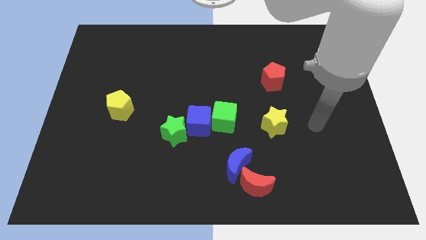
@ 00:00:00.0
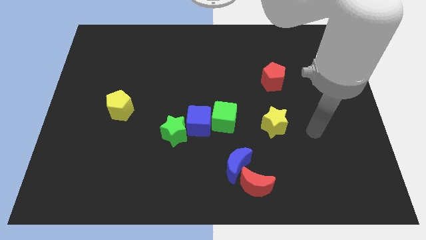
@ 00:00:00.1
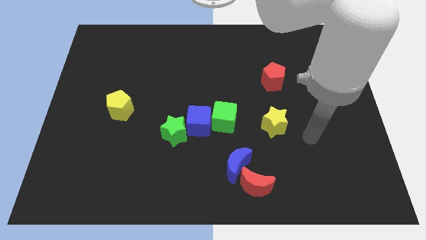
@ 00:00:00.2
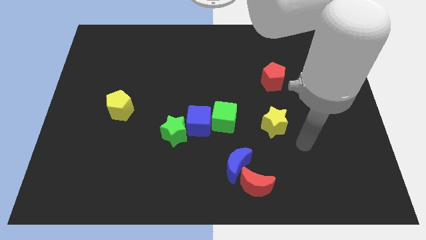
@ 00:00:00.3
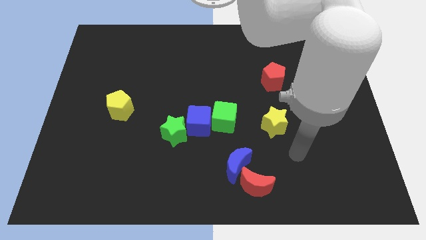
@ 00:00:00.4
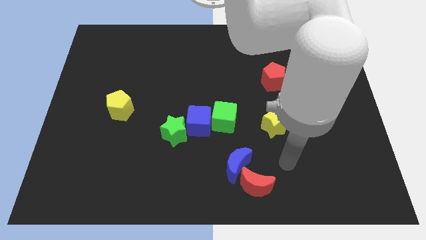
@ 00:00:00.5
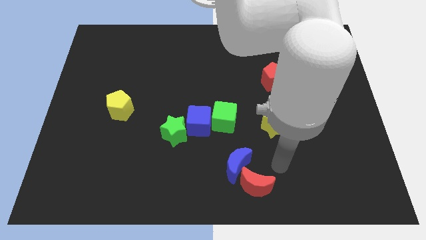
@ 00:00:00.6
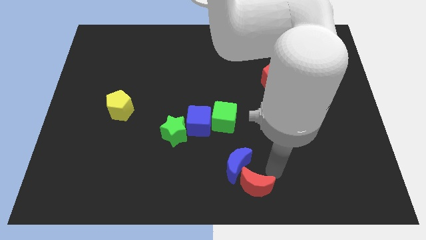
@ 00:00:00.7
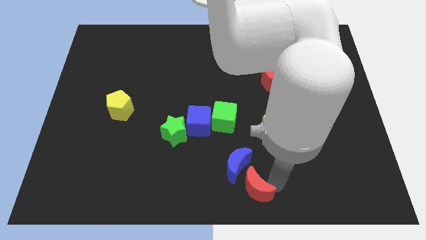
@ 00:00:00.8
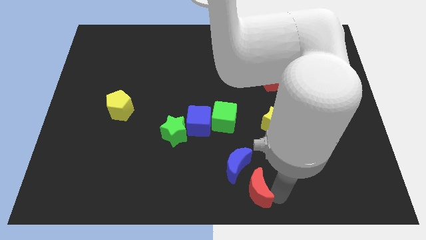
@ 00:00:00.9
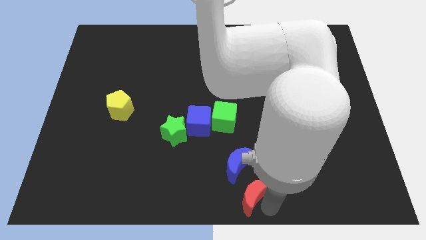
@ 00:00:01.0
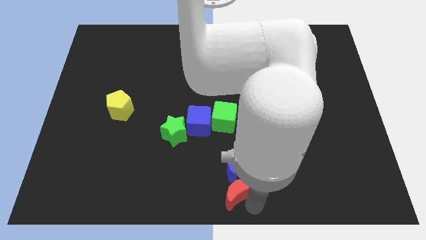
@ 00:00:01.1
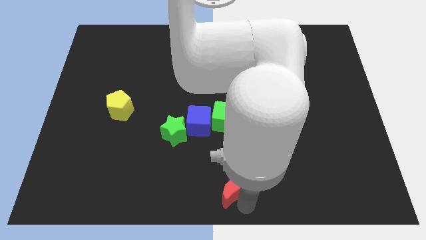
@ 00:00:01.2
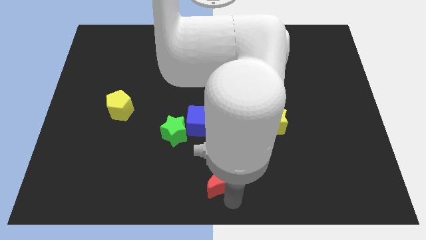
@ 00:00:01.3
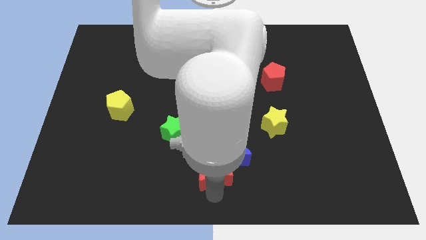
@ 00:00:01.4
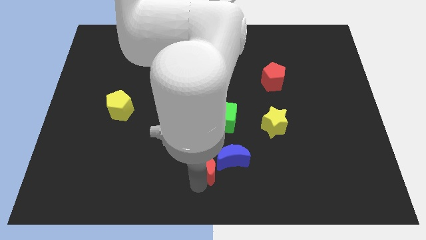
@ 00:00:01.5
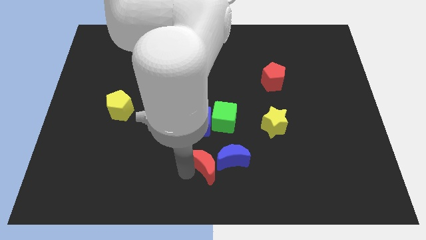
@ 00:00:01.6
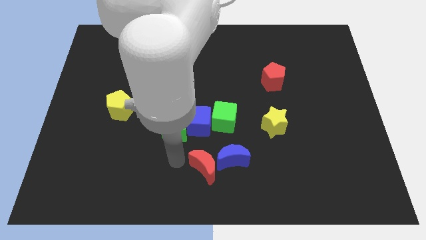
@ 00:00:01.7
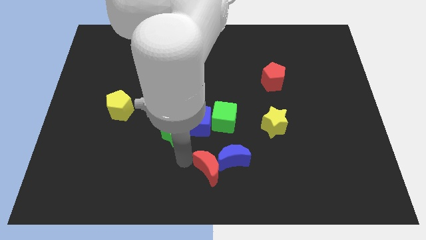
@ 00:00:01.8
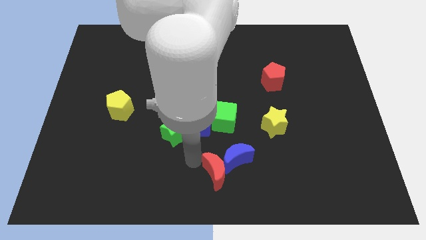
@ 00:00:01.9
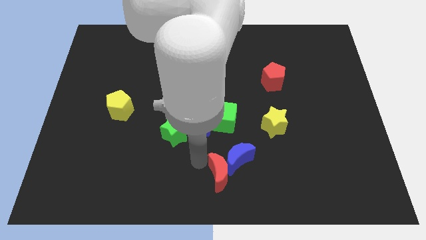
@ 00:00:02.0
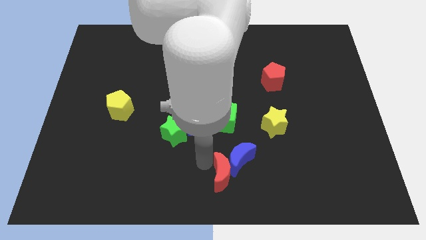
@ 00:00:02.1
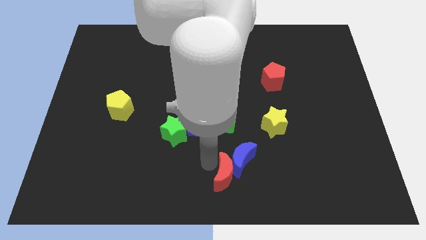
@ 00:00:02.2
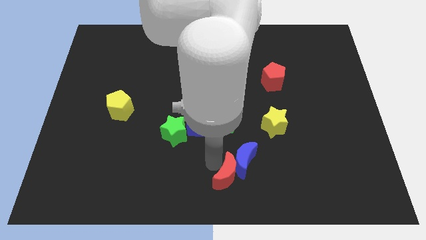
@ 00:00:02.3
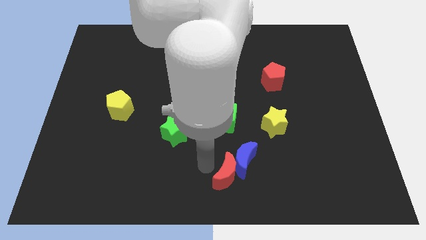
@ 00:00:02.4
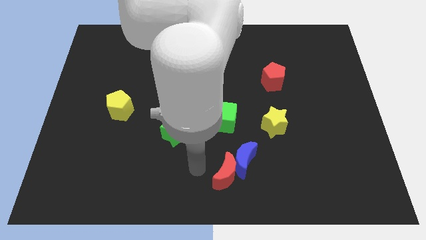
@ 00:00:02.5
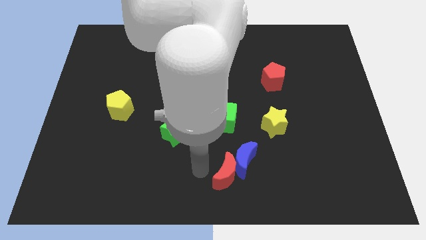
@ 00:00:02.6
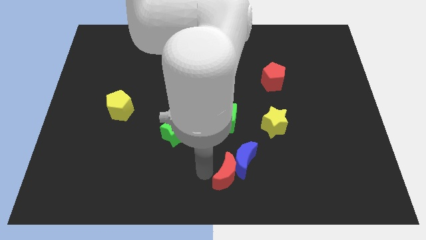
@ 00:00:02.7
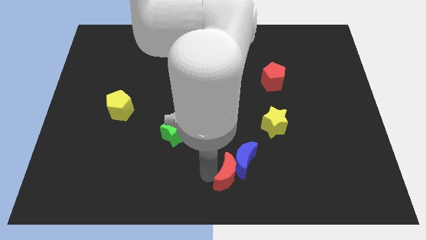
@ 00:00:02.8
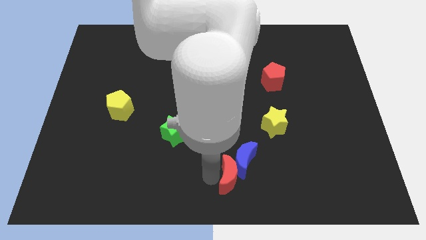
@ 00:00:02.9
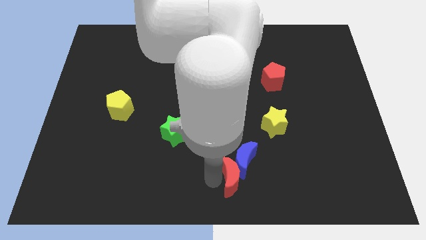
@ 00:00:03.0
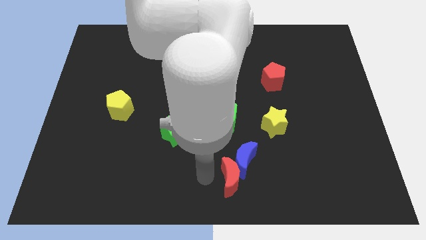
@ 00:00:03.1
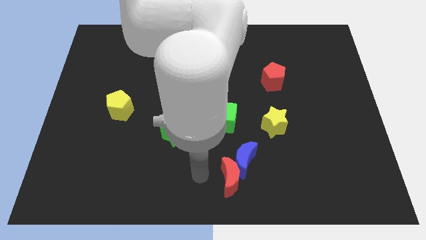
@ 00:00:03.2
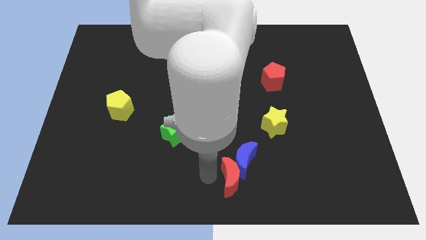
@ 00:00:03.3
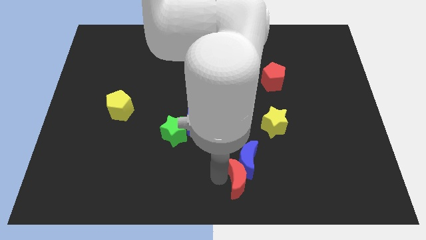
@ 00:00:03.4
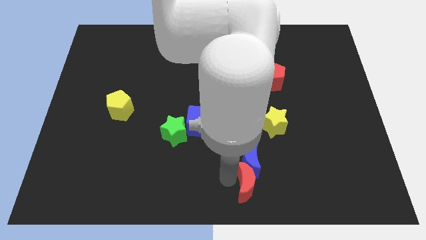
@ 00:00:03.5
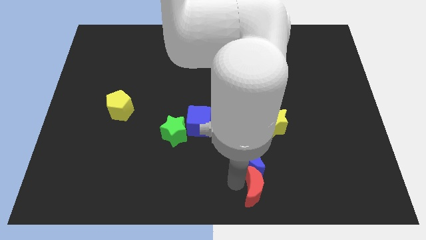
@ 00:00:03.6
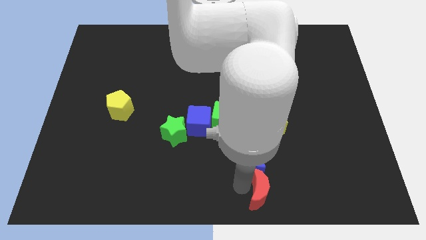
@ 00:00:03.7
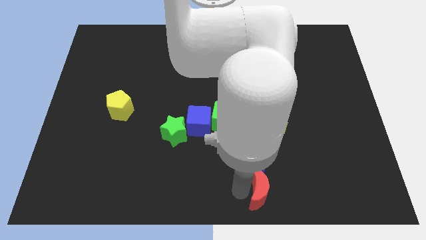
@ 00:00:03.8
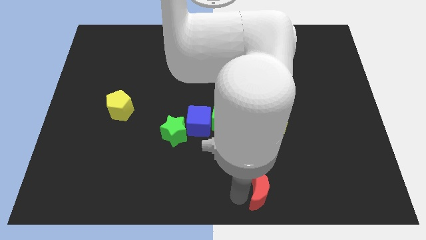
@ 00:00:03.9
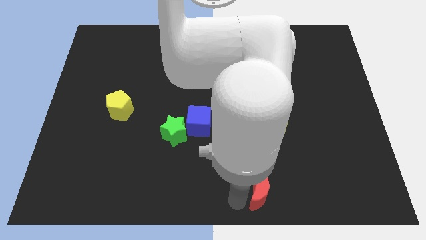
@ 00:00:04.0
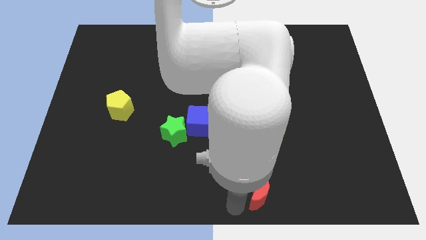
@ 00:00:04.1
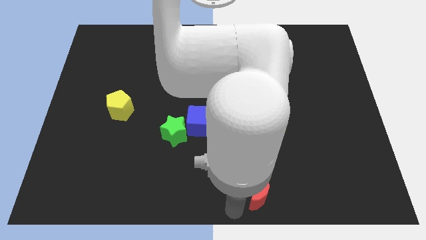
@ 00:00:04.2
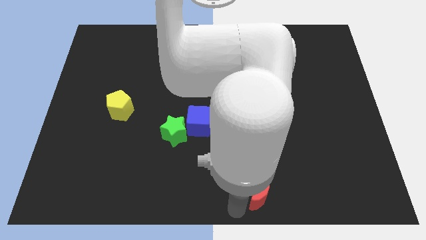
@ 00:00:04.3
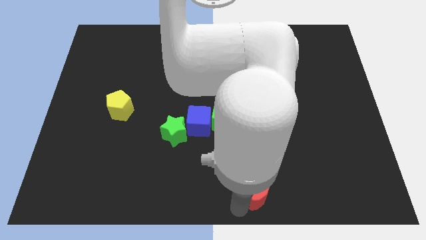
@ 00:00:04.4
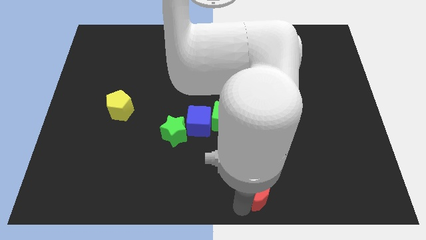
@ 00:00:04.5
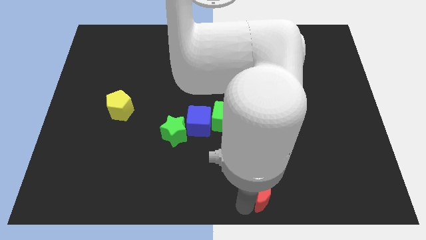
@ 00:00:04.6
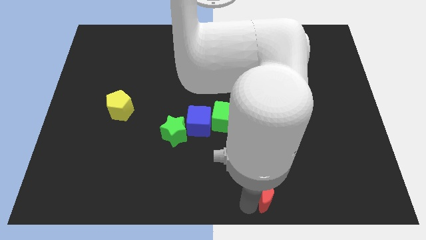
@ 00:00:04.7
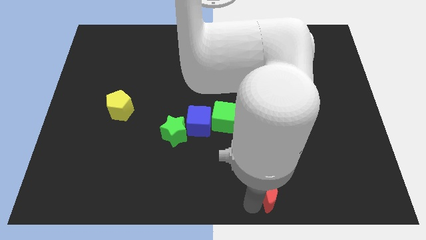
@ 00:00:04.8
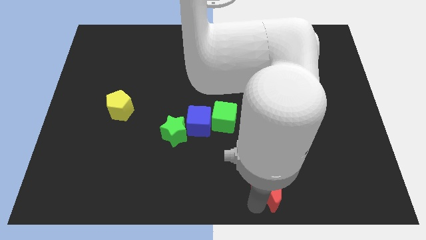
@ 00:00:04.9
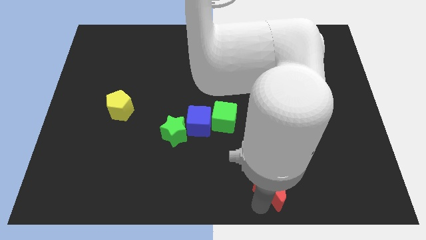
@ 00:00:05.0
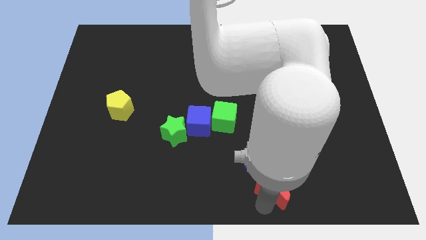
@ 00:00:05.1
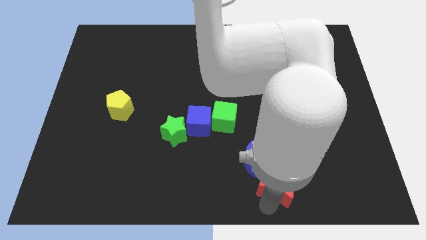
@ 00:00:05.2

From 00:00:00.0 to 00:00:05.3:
move the red moon to the bottom of the yellow star

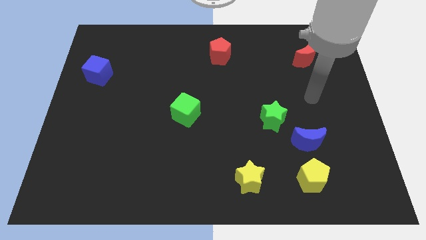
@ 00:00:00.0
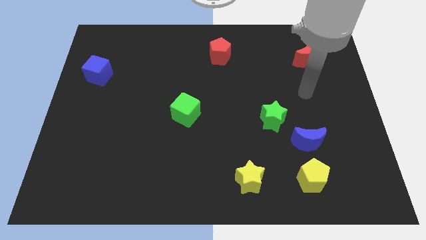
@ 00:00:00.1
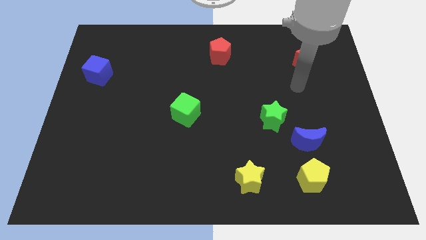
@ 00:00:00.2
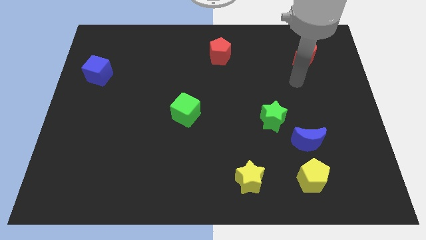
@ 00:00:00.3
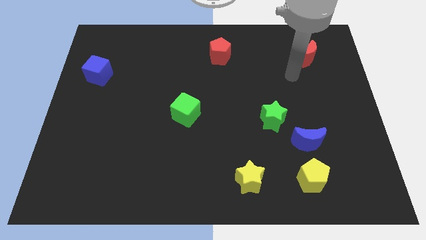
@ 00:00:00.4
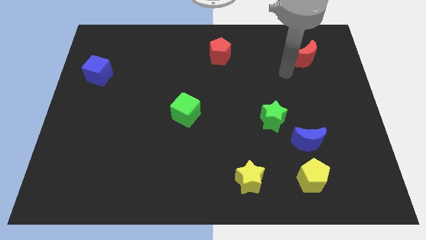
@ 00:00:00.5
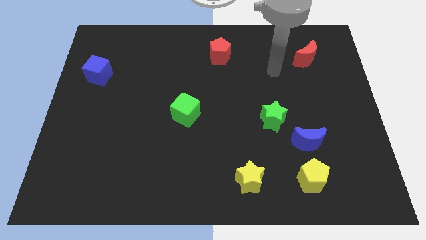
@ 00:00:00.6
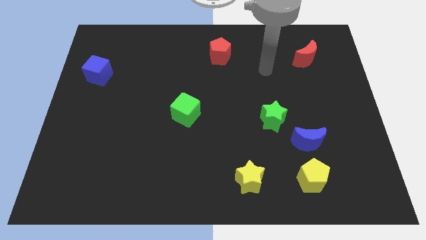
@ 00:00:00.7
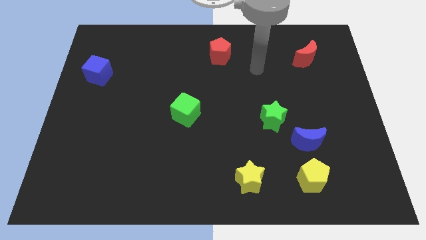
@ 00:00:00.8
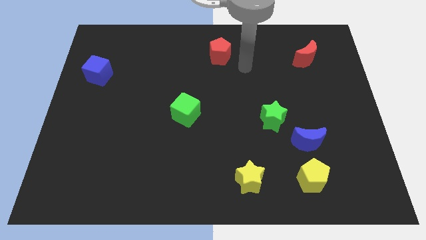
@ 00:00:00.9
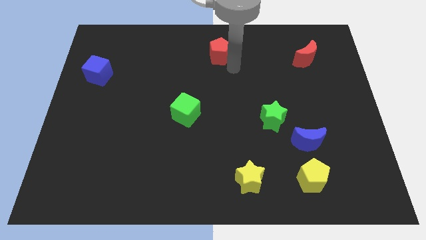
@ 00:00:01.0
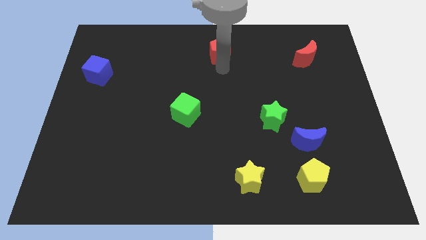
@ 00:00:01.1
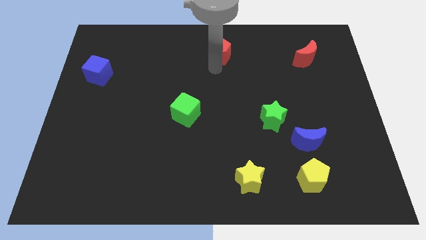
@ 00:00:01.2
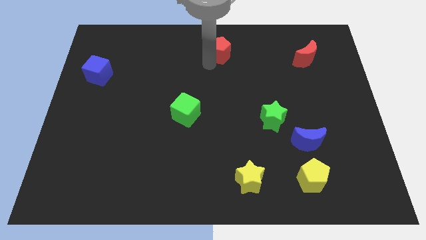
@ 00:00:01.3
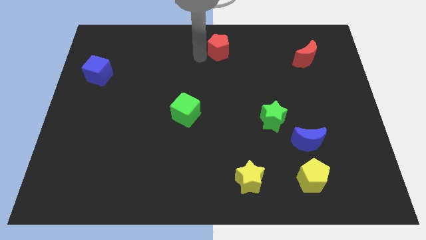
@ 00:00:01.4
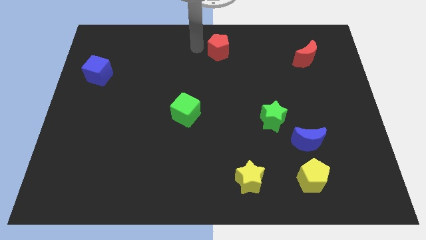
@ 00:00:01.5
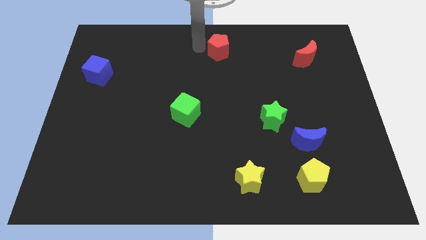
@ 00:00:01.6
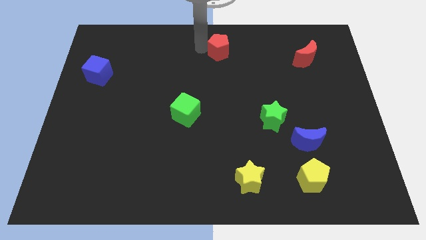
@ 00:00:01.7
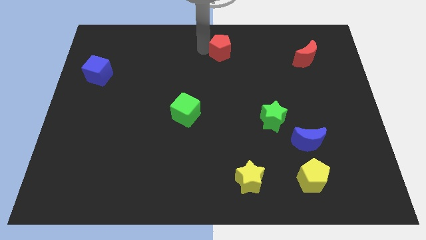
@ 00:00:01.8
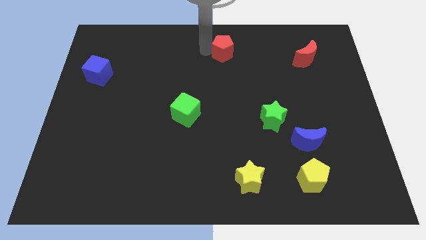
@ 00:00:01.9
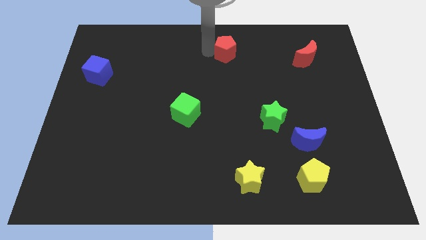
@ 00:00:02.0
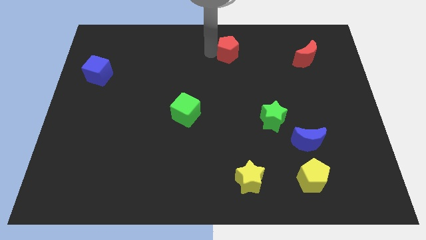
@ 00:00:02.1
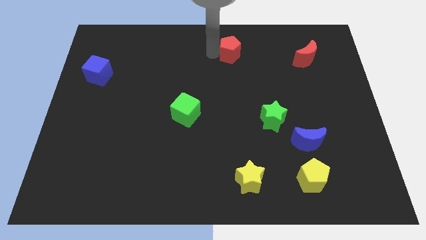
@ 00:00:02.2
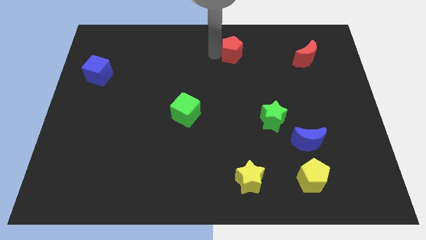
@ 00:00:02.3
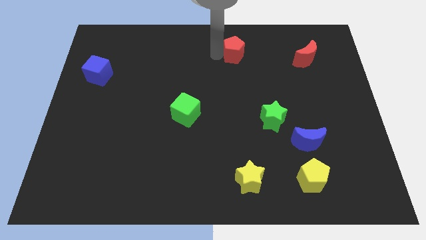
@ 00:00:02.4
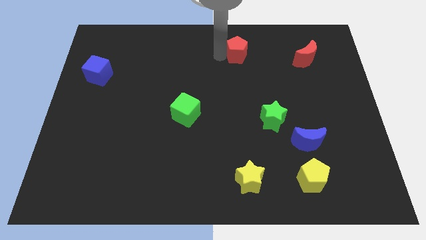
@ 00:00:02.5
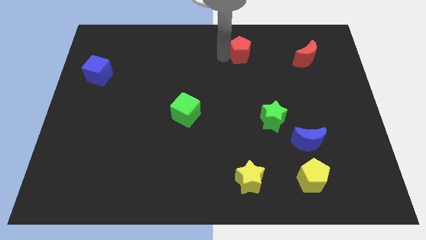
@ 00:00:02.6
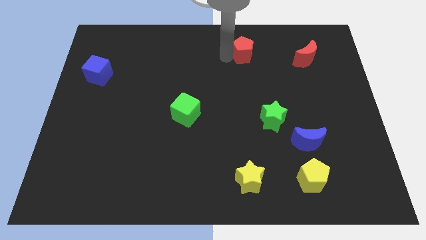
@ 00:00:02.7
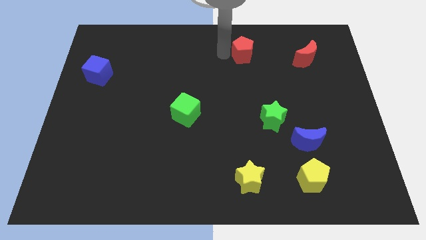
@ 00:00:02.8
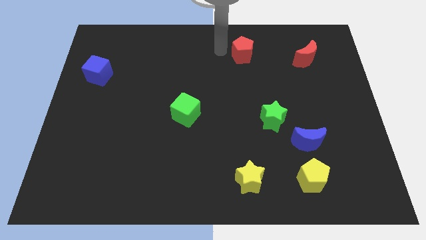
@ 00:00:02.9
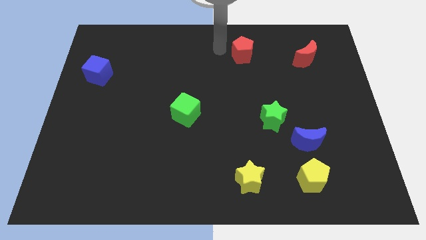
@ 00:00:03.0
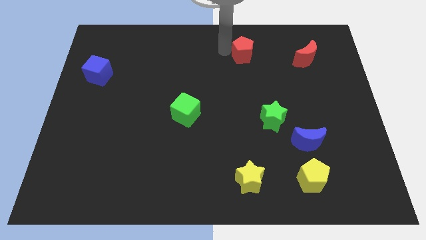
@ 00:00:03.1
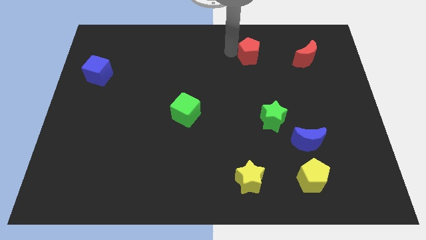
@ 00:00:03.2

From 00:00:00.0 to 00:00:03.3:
slide the red pentagon to the left side of the red moon
